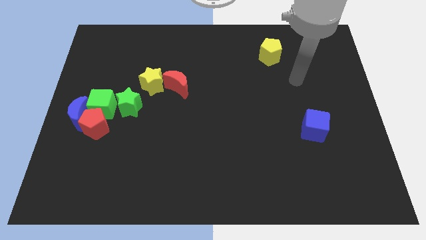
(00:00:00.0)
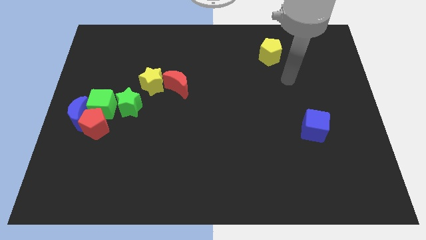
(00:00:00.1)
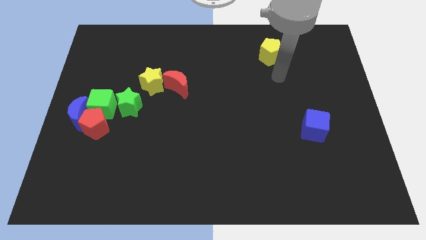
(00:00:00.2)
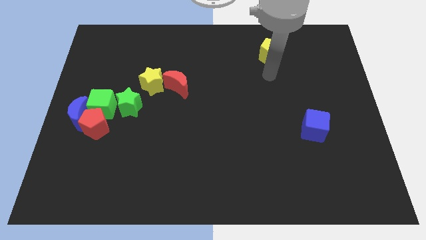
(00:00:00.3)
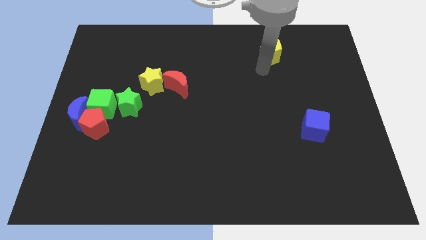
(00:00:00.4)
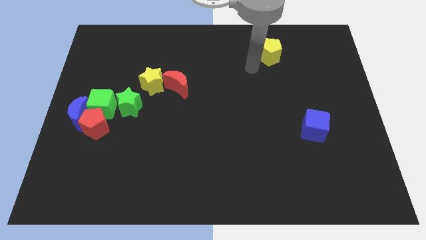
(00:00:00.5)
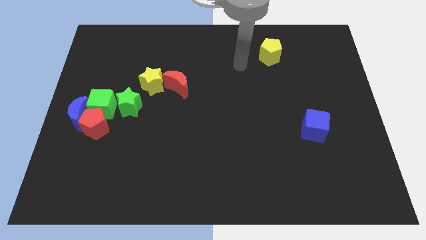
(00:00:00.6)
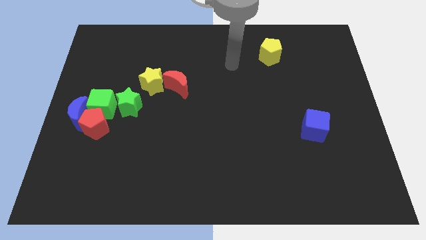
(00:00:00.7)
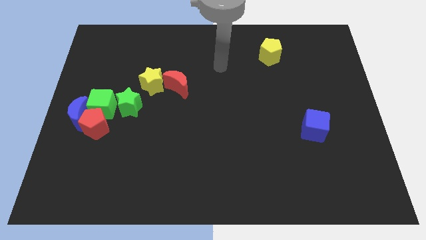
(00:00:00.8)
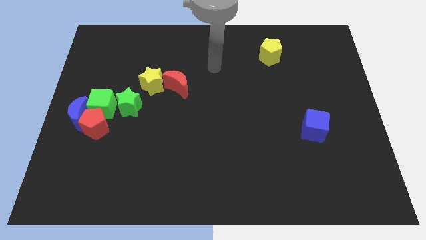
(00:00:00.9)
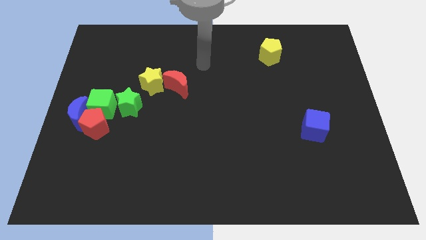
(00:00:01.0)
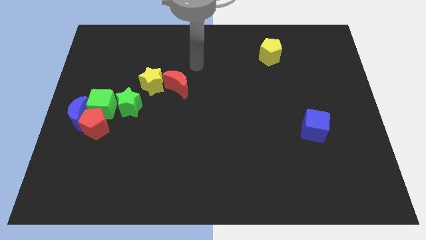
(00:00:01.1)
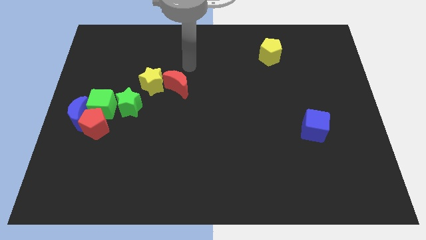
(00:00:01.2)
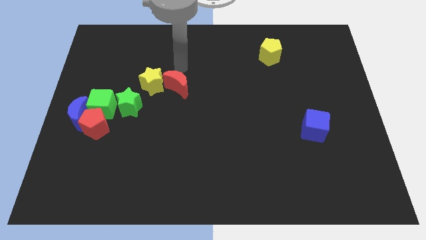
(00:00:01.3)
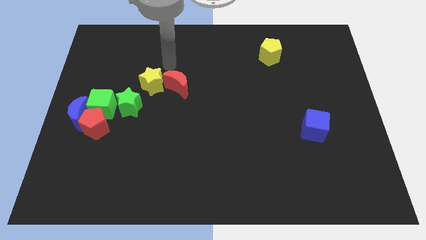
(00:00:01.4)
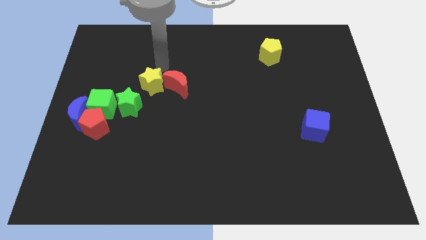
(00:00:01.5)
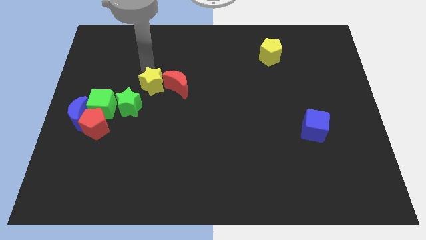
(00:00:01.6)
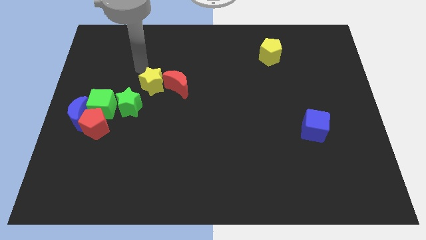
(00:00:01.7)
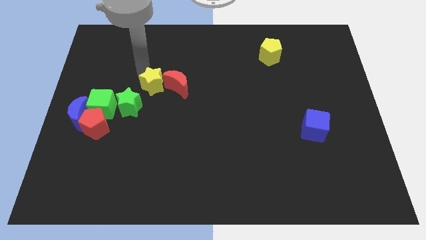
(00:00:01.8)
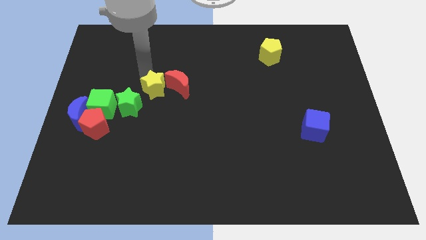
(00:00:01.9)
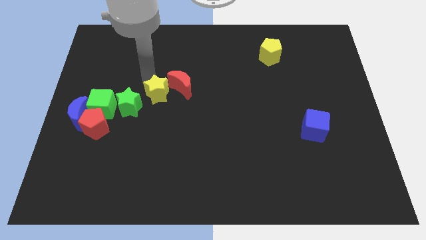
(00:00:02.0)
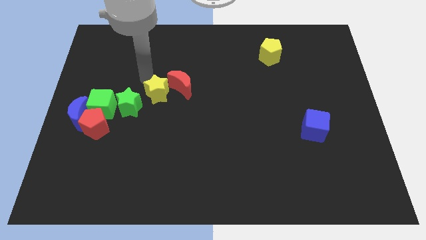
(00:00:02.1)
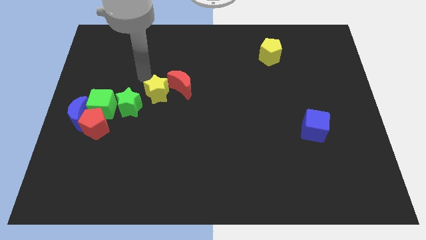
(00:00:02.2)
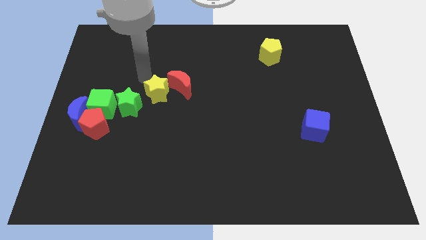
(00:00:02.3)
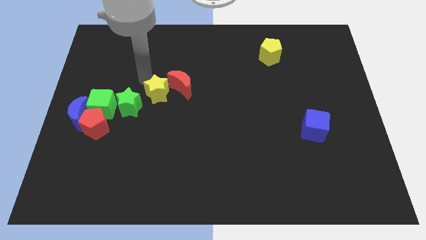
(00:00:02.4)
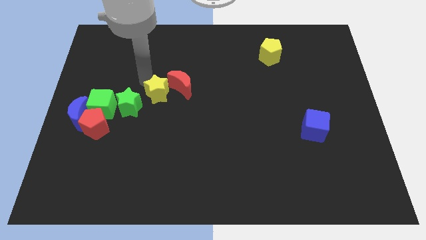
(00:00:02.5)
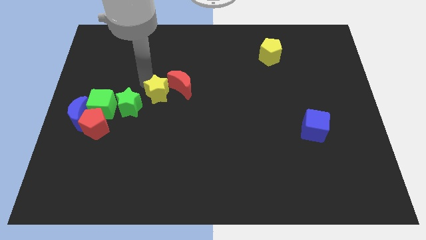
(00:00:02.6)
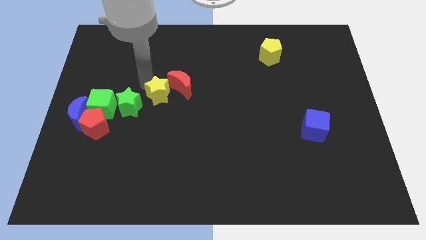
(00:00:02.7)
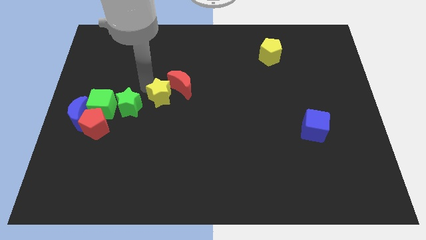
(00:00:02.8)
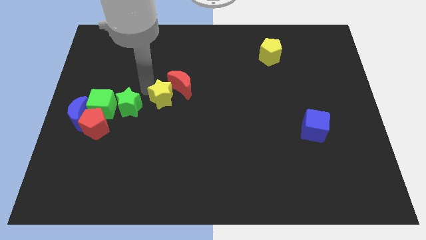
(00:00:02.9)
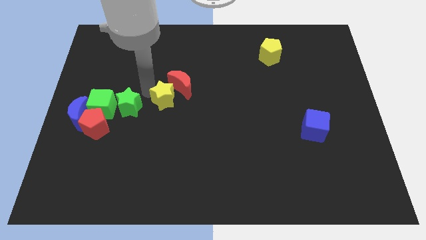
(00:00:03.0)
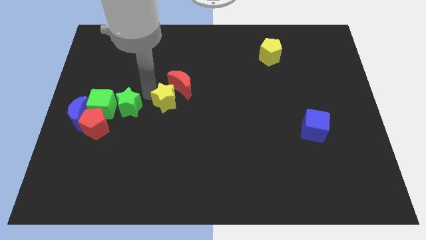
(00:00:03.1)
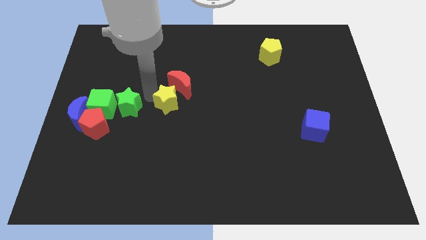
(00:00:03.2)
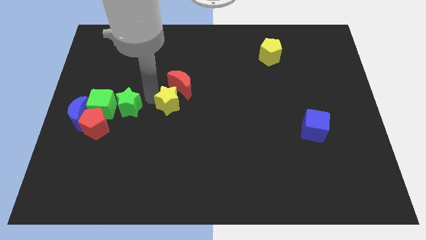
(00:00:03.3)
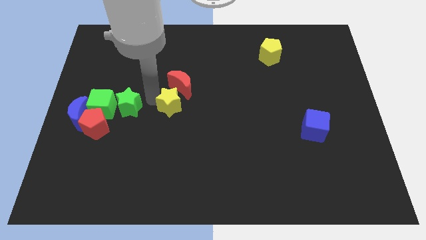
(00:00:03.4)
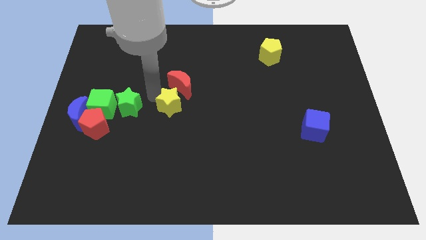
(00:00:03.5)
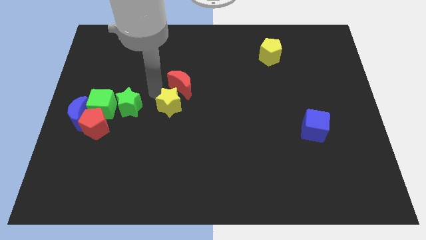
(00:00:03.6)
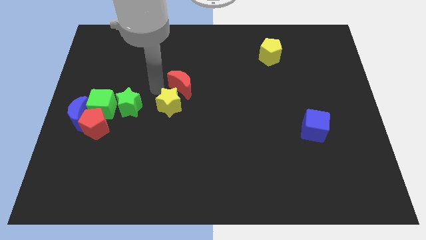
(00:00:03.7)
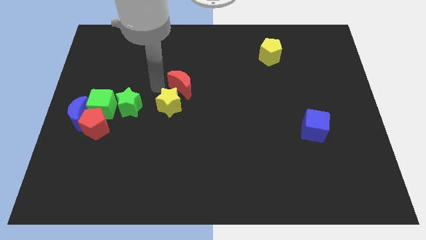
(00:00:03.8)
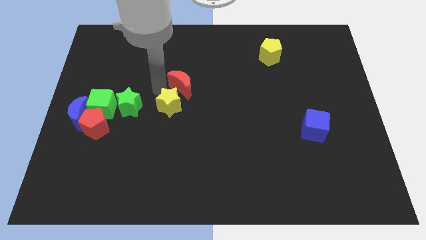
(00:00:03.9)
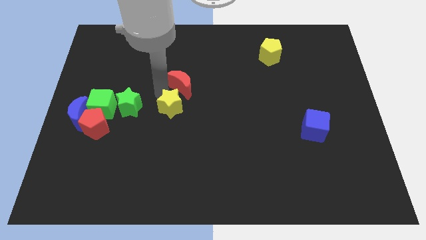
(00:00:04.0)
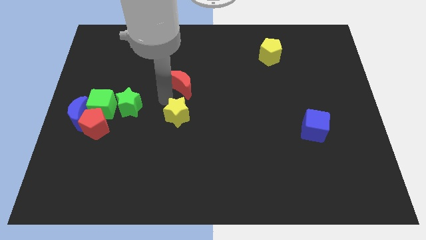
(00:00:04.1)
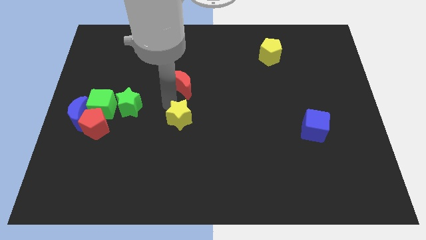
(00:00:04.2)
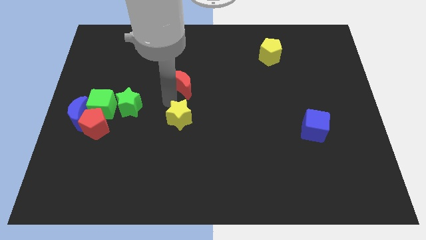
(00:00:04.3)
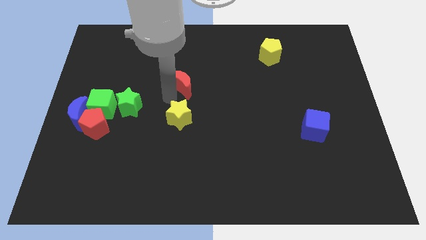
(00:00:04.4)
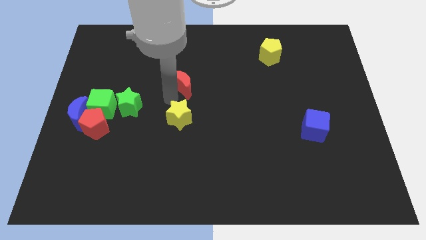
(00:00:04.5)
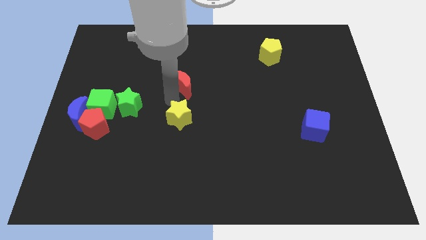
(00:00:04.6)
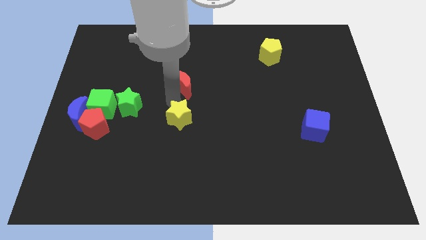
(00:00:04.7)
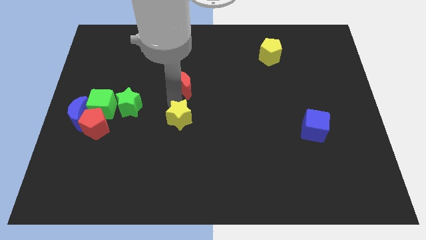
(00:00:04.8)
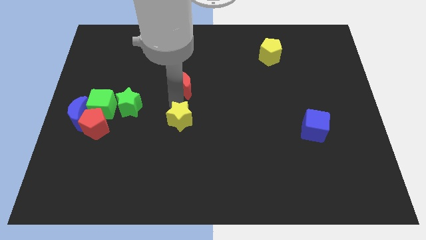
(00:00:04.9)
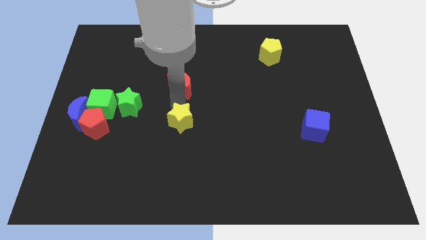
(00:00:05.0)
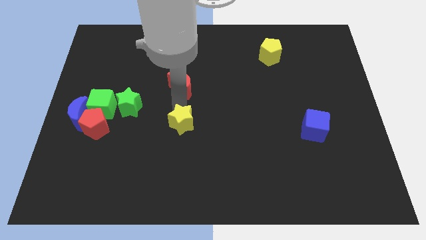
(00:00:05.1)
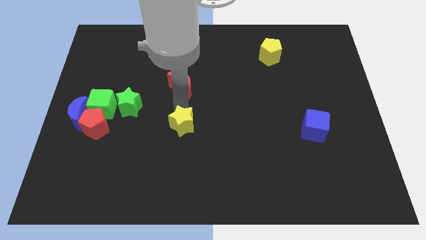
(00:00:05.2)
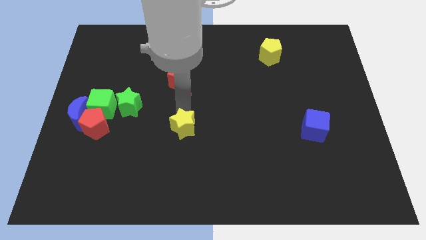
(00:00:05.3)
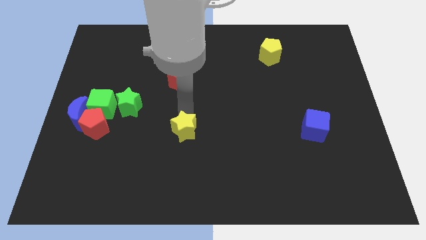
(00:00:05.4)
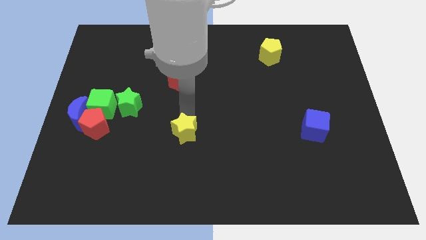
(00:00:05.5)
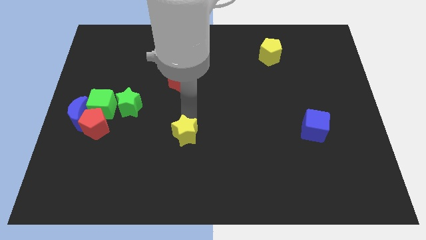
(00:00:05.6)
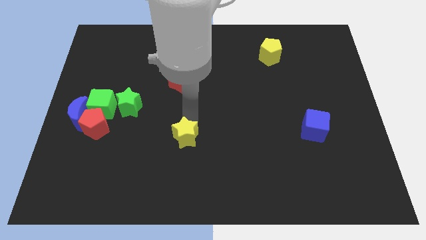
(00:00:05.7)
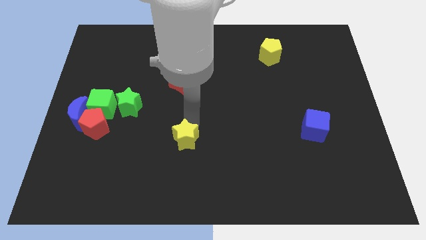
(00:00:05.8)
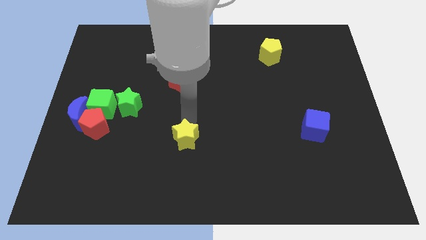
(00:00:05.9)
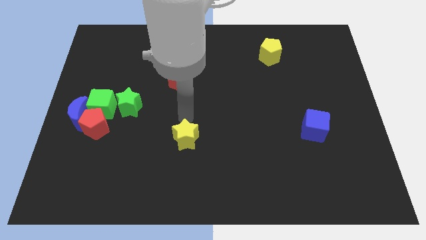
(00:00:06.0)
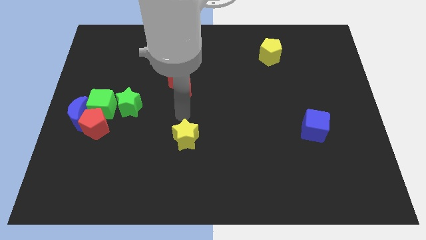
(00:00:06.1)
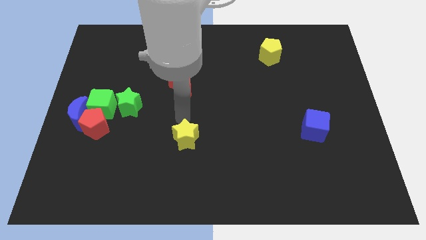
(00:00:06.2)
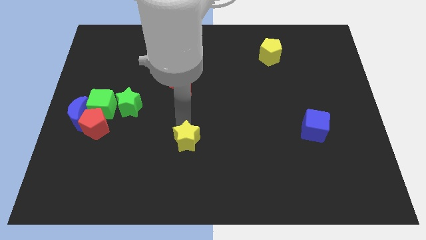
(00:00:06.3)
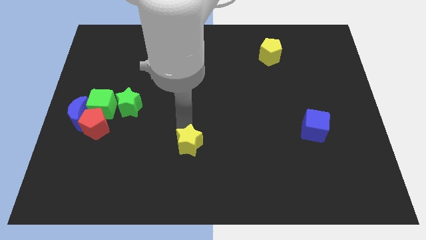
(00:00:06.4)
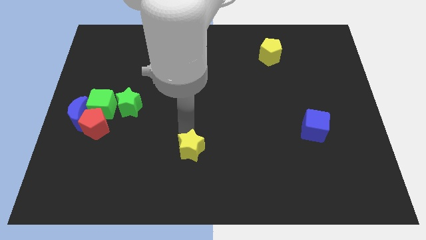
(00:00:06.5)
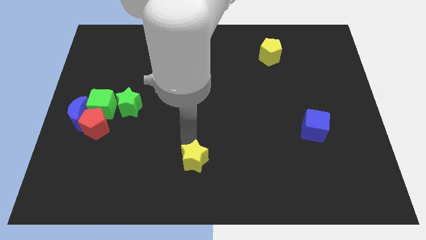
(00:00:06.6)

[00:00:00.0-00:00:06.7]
slide the yellow star to the bottom
